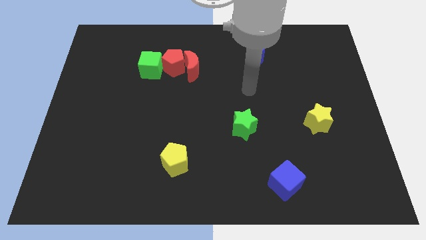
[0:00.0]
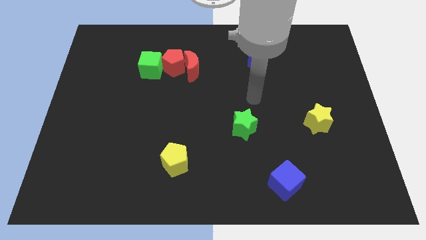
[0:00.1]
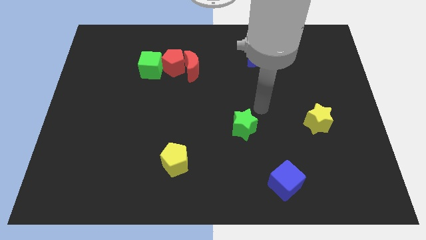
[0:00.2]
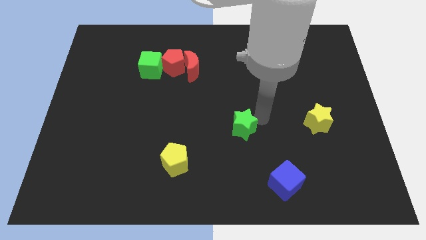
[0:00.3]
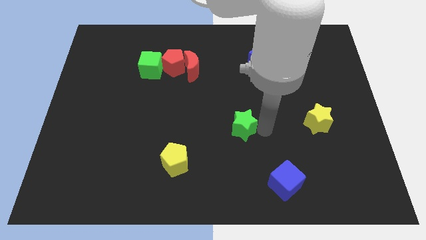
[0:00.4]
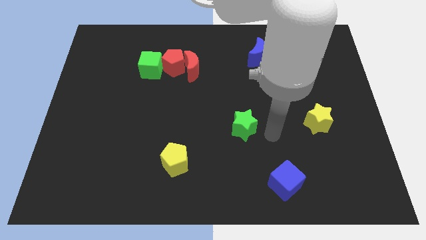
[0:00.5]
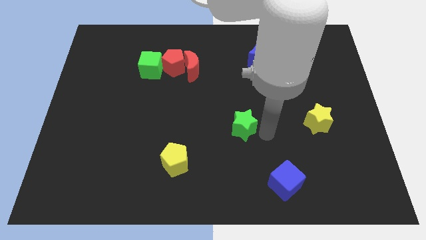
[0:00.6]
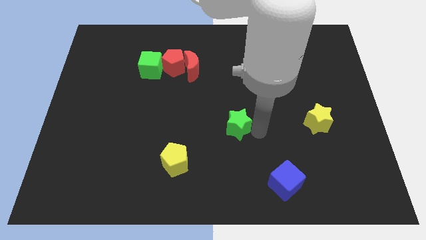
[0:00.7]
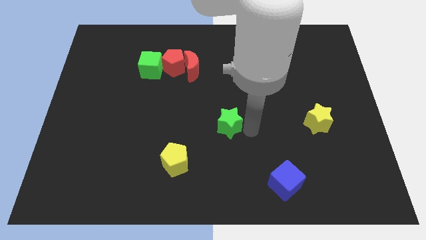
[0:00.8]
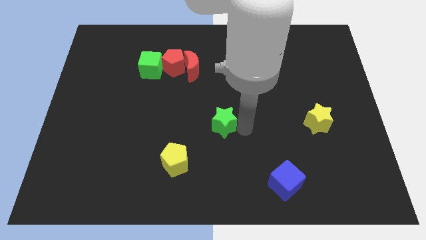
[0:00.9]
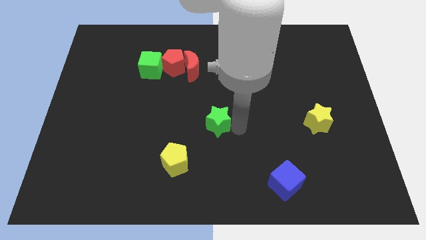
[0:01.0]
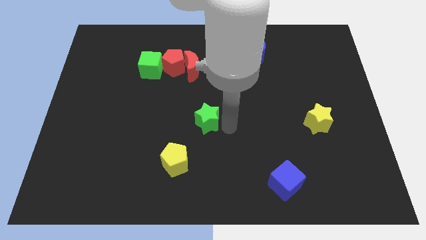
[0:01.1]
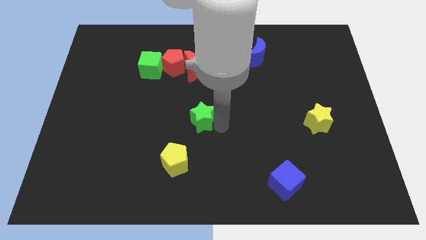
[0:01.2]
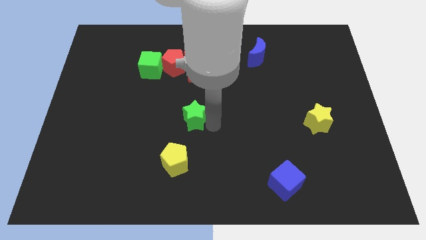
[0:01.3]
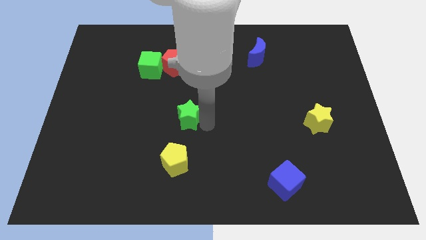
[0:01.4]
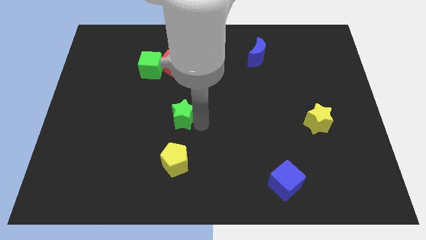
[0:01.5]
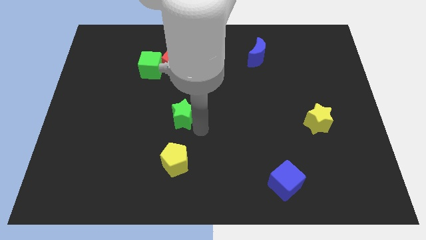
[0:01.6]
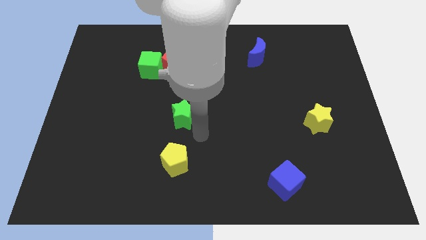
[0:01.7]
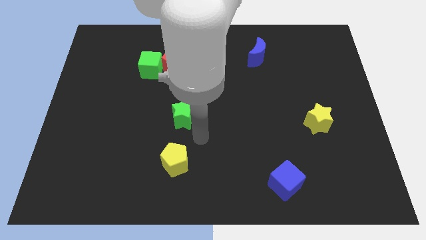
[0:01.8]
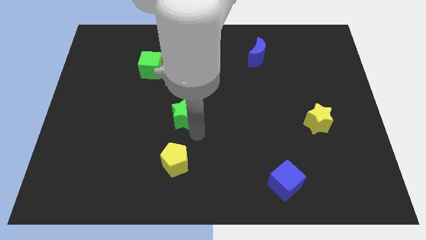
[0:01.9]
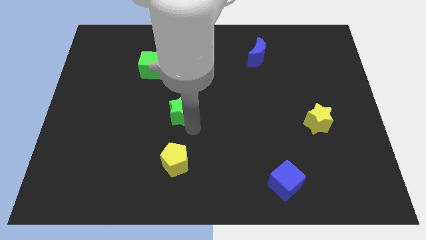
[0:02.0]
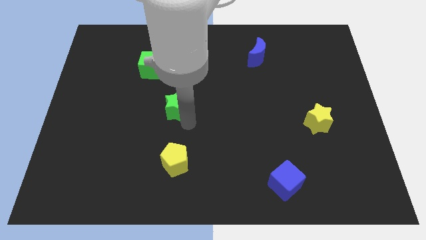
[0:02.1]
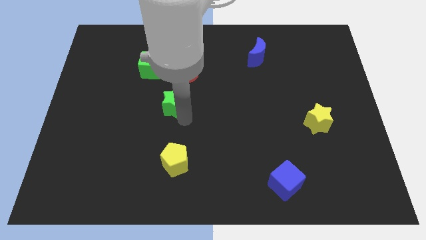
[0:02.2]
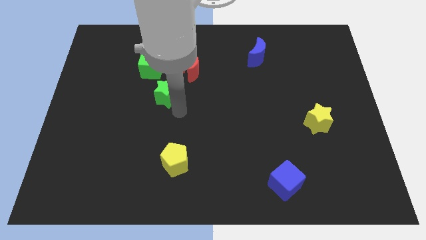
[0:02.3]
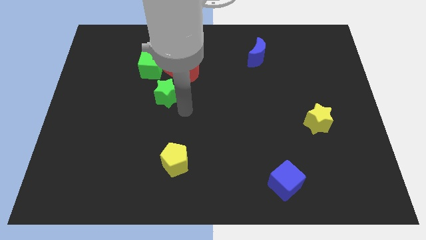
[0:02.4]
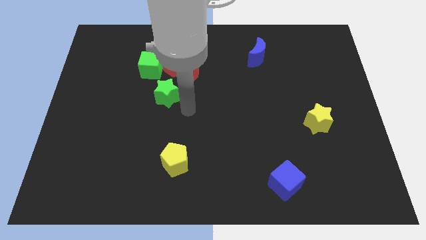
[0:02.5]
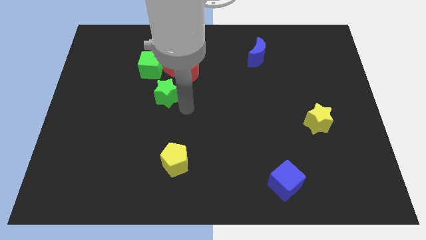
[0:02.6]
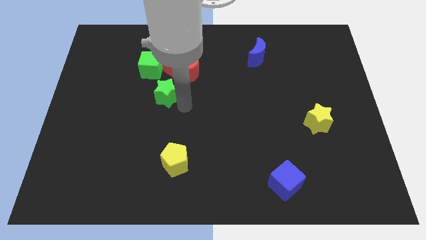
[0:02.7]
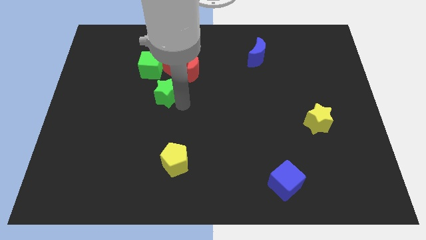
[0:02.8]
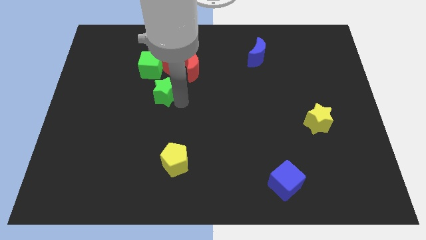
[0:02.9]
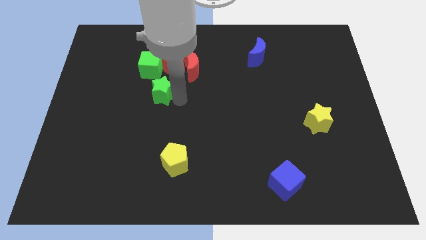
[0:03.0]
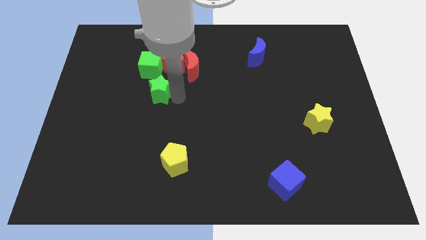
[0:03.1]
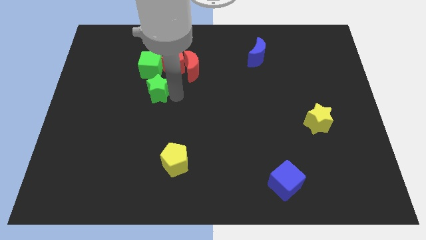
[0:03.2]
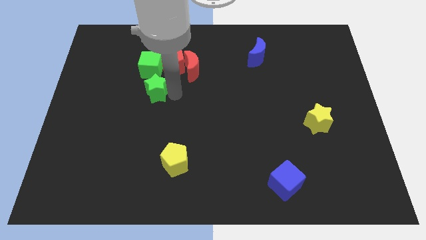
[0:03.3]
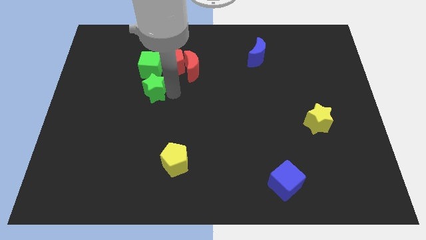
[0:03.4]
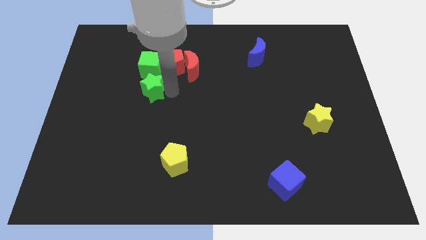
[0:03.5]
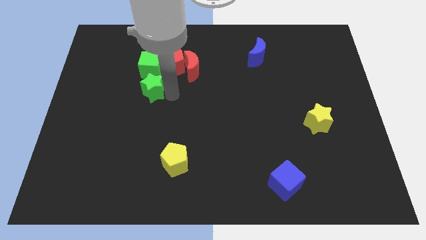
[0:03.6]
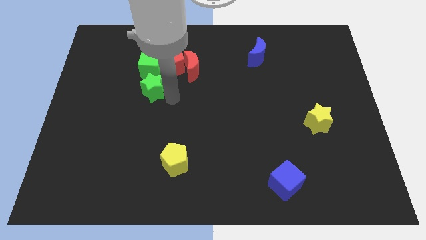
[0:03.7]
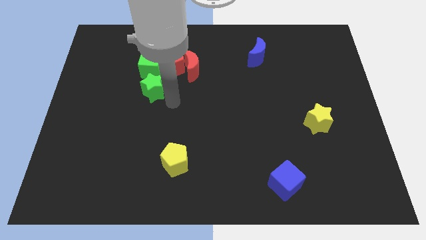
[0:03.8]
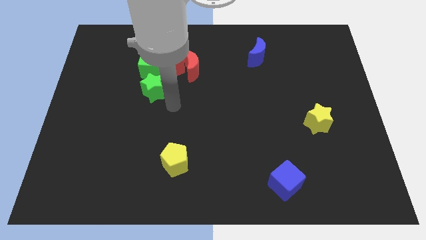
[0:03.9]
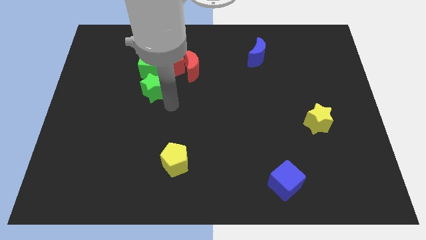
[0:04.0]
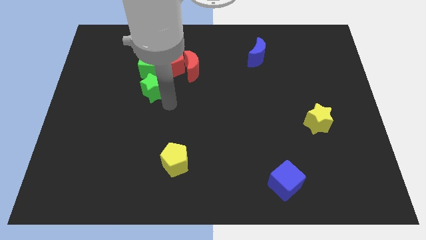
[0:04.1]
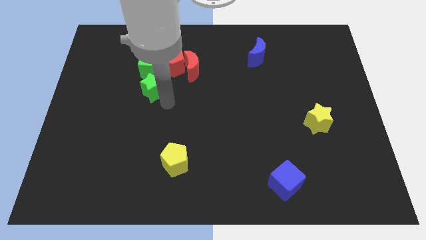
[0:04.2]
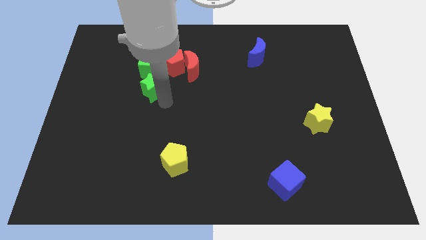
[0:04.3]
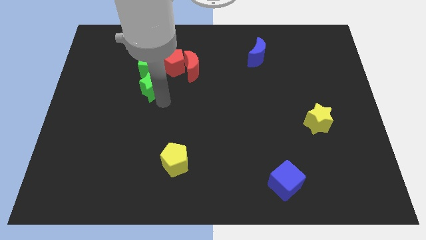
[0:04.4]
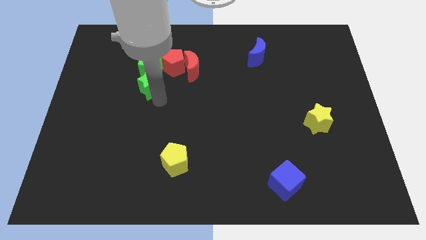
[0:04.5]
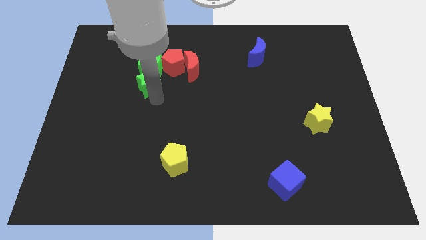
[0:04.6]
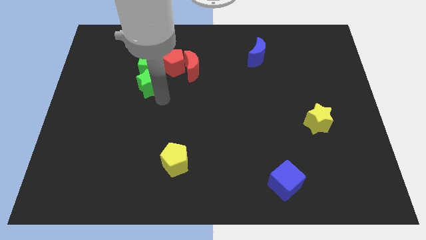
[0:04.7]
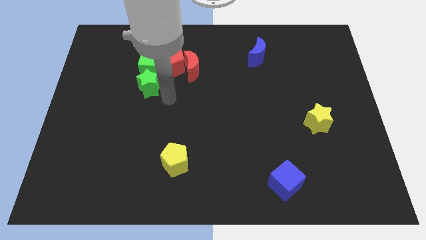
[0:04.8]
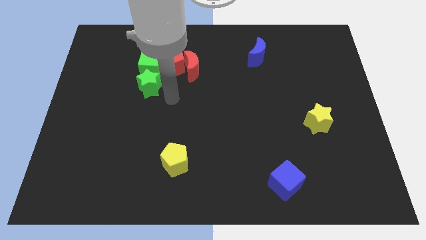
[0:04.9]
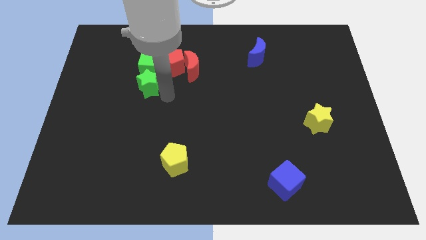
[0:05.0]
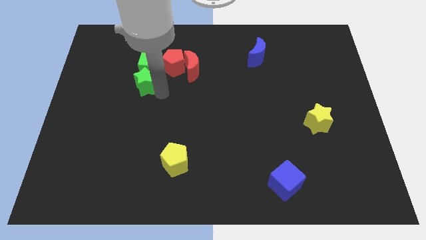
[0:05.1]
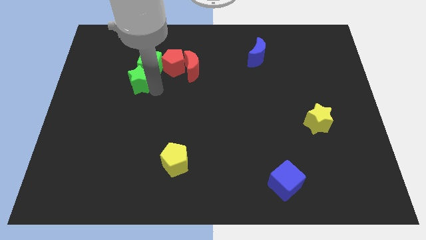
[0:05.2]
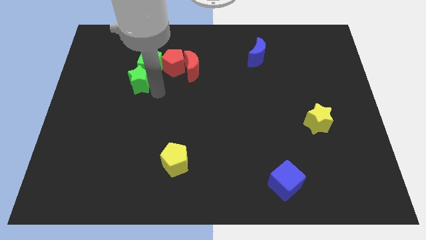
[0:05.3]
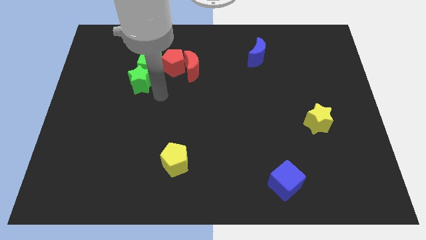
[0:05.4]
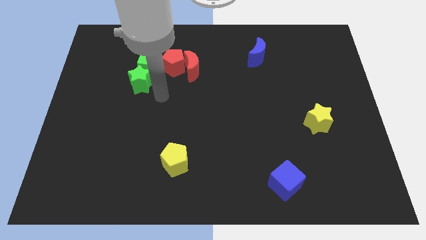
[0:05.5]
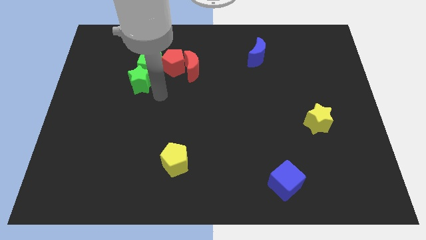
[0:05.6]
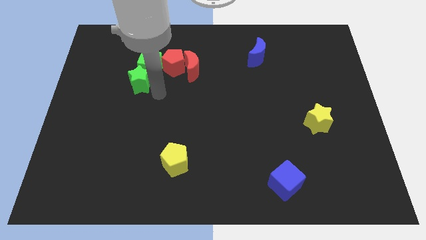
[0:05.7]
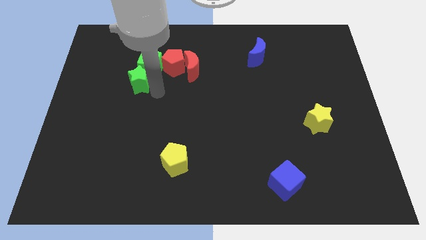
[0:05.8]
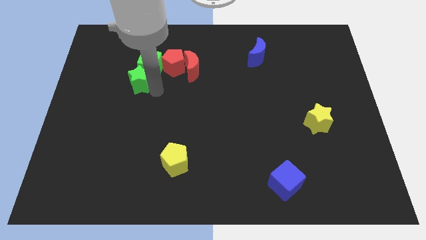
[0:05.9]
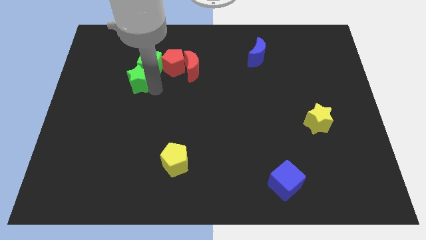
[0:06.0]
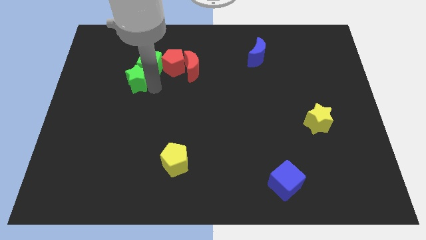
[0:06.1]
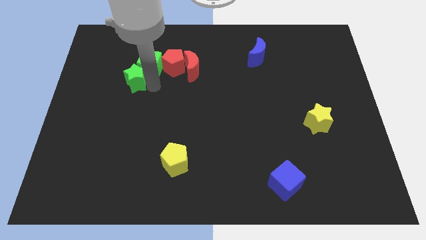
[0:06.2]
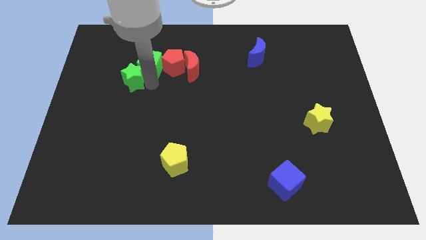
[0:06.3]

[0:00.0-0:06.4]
put the green star to the left side of the green cube

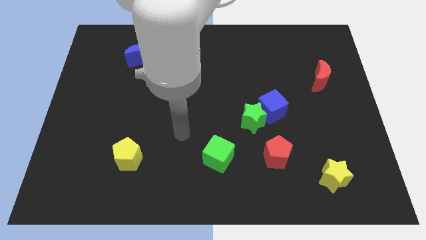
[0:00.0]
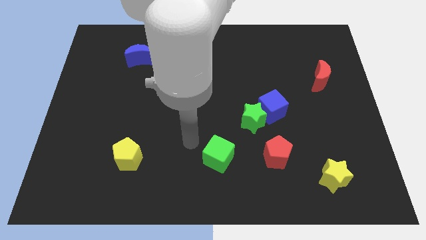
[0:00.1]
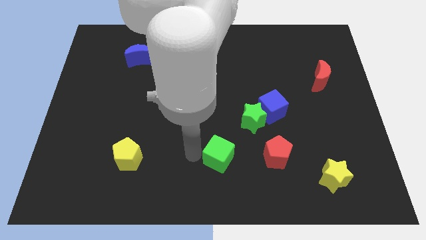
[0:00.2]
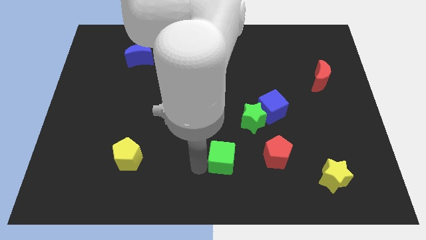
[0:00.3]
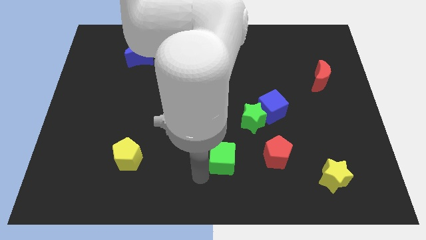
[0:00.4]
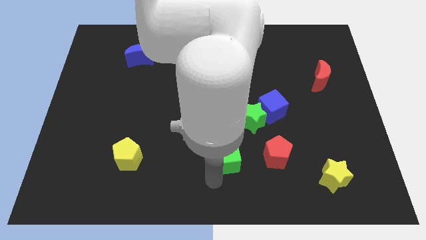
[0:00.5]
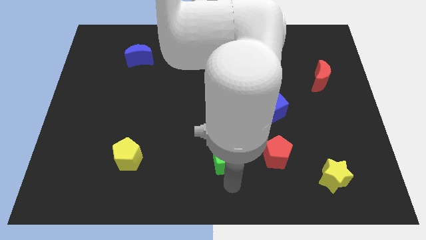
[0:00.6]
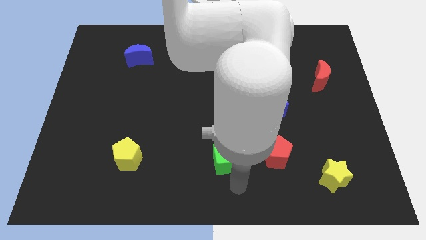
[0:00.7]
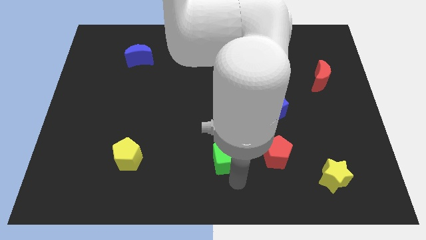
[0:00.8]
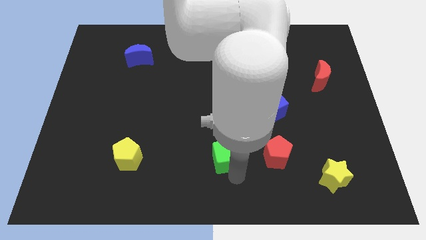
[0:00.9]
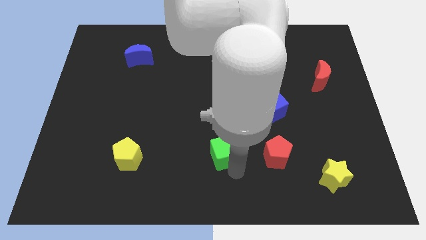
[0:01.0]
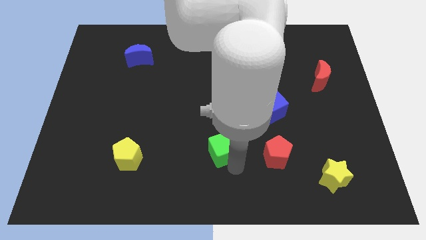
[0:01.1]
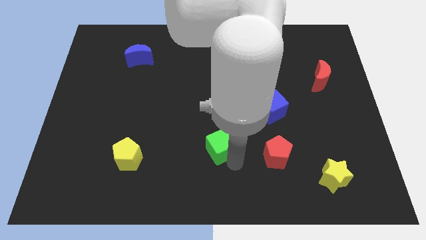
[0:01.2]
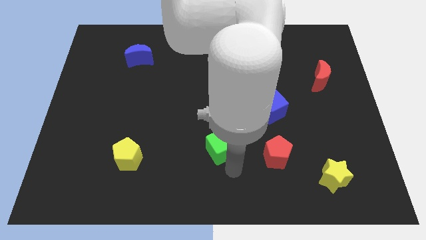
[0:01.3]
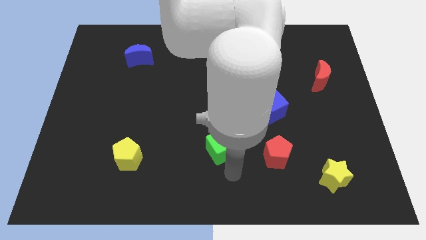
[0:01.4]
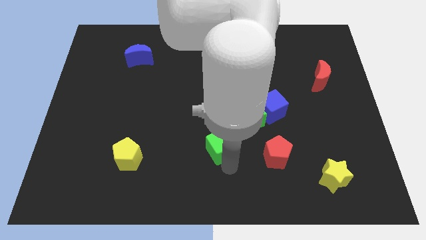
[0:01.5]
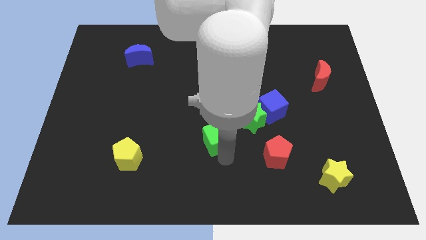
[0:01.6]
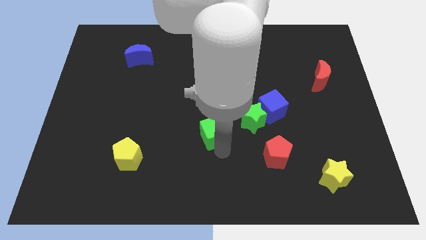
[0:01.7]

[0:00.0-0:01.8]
slide the green cube to the left of the green star

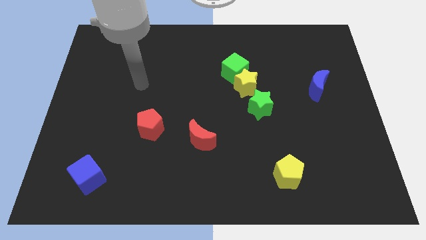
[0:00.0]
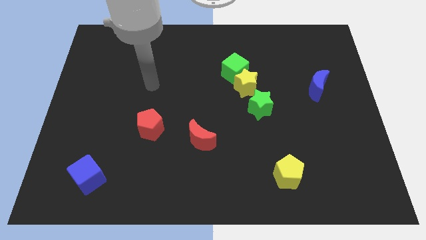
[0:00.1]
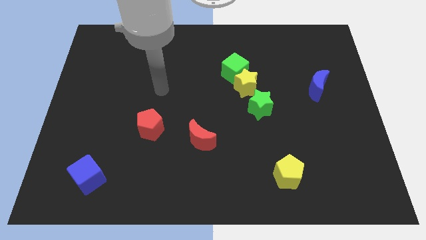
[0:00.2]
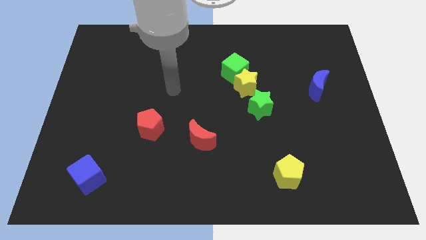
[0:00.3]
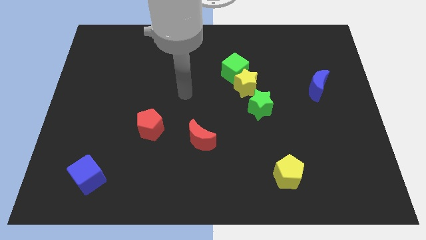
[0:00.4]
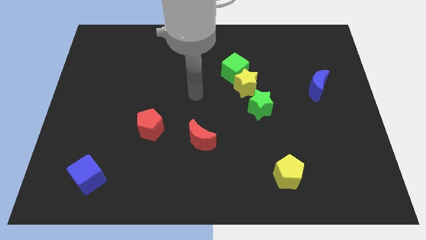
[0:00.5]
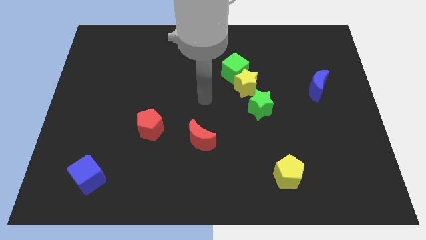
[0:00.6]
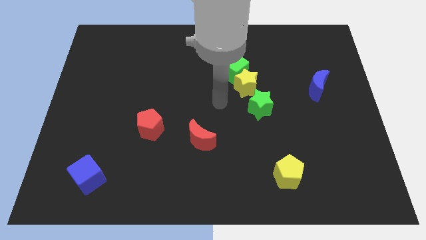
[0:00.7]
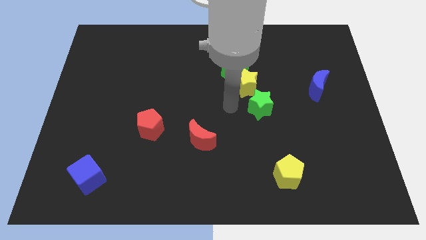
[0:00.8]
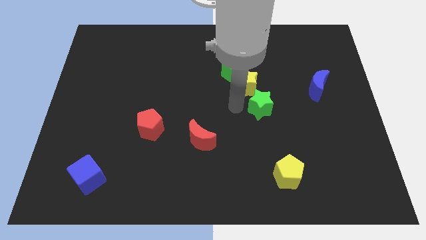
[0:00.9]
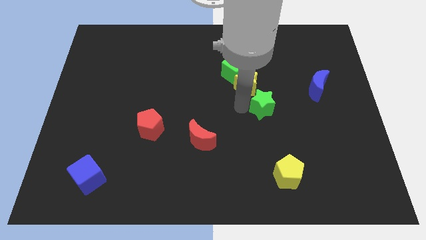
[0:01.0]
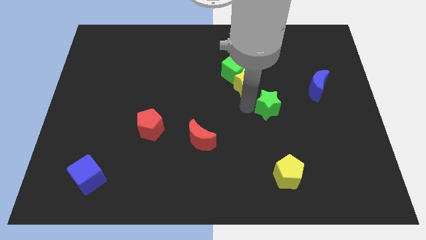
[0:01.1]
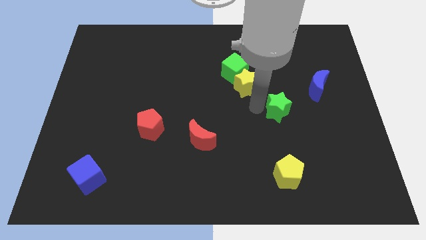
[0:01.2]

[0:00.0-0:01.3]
slide the green star to the bottom left side of the blue moon
